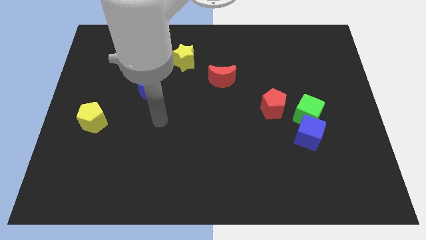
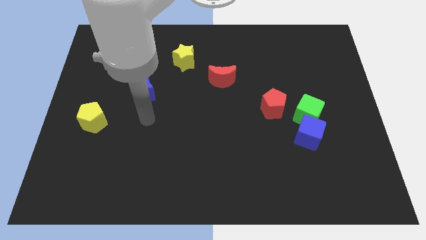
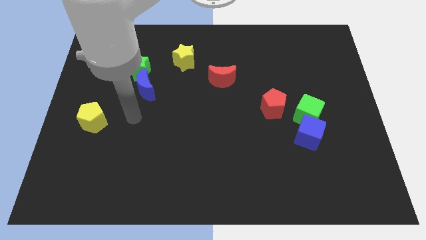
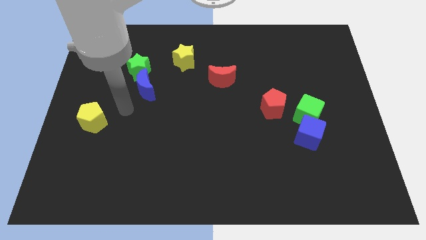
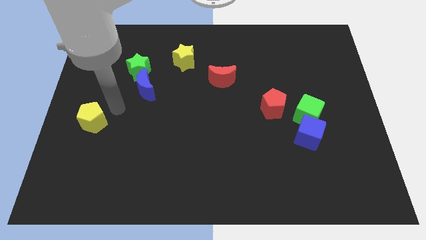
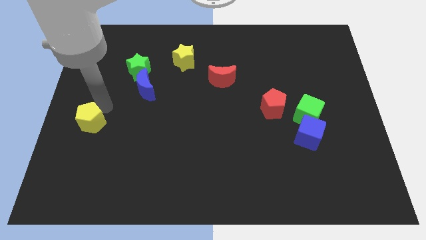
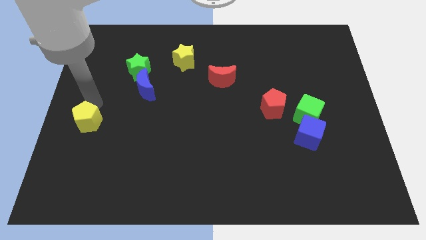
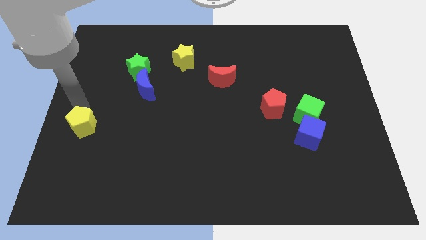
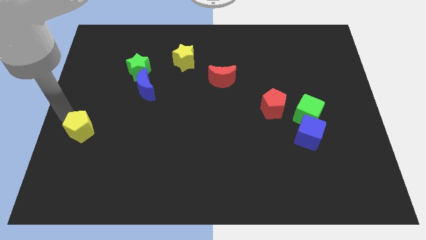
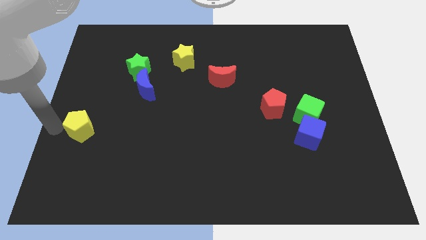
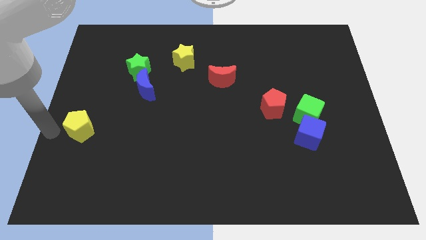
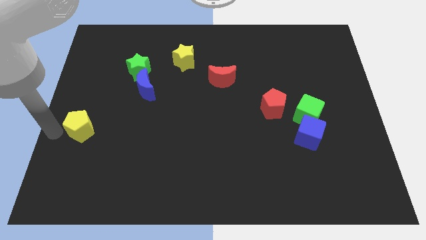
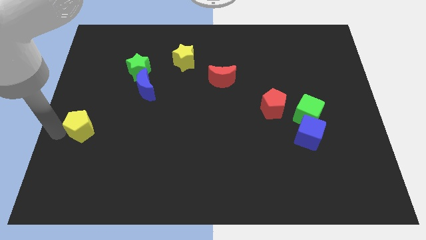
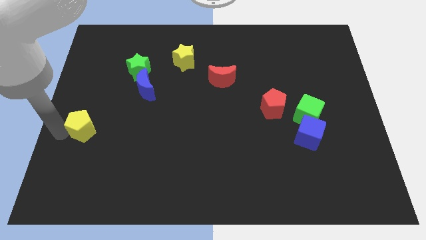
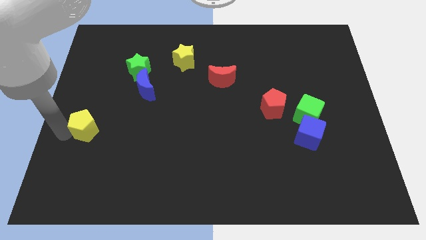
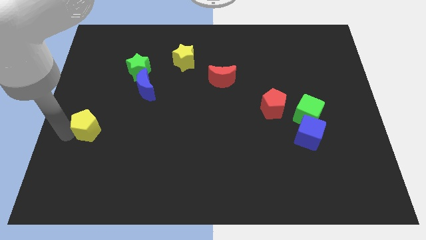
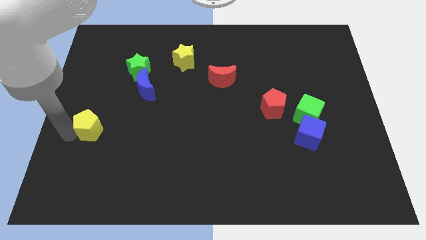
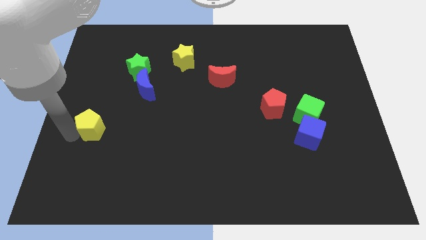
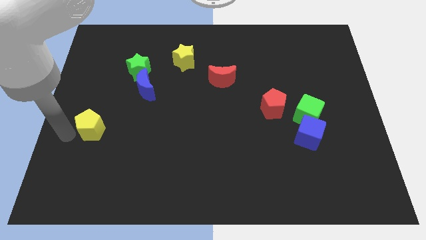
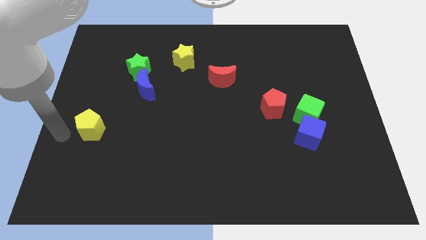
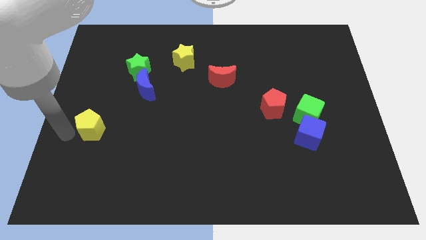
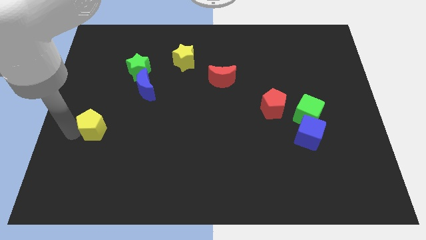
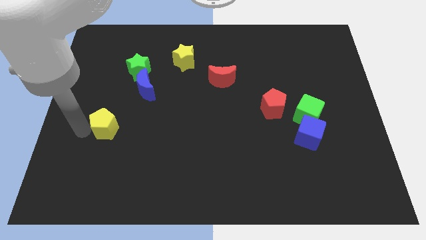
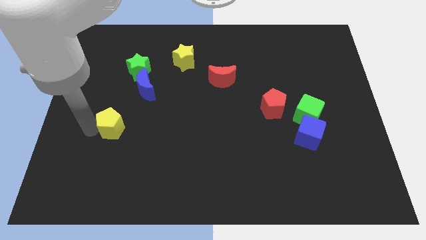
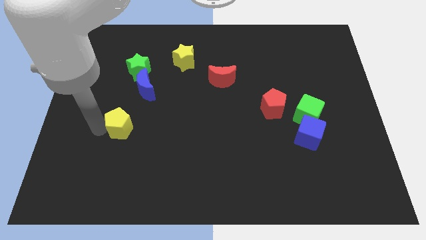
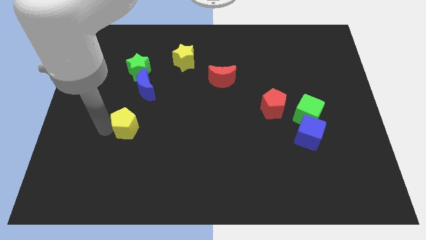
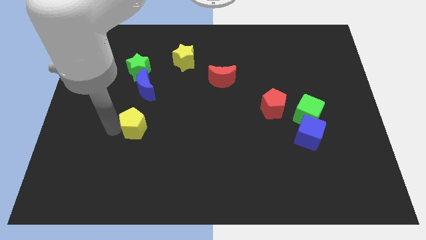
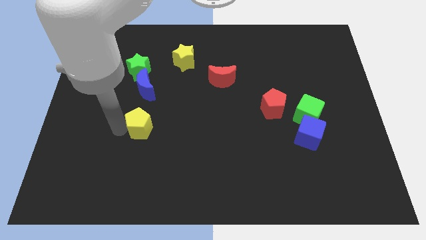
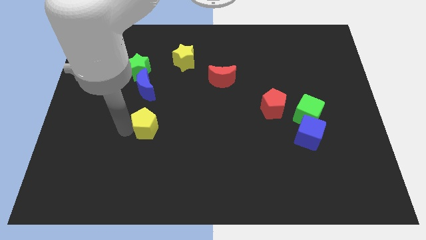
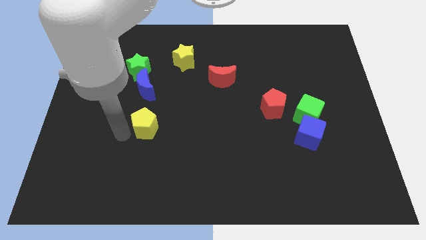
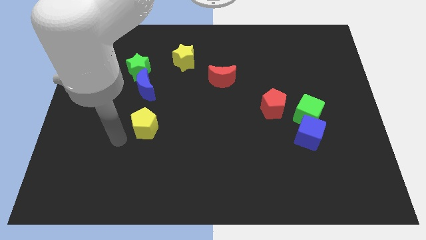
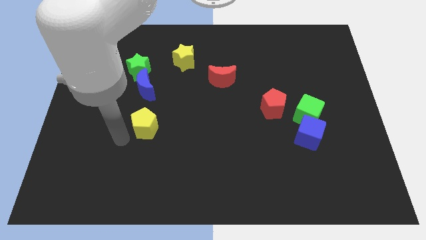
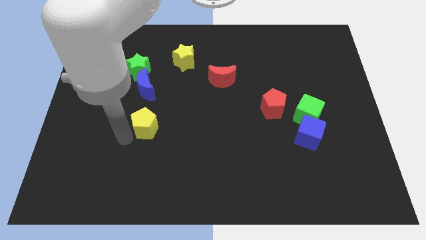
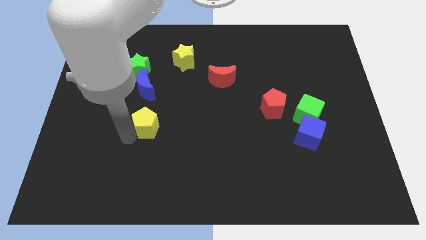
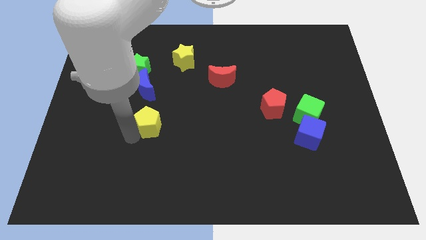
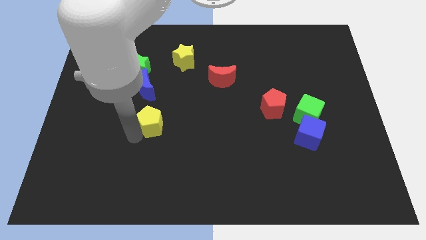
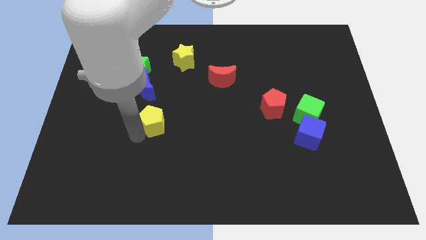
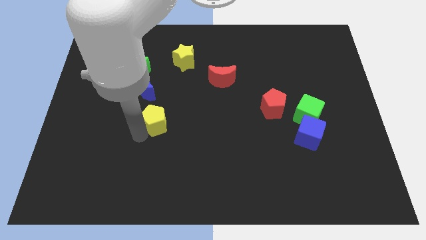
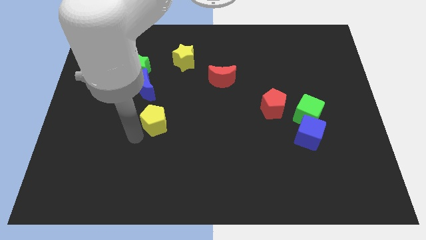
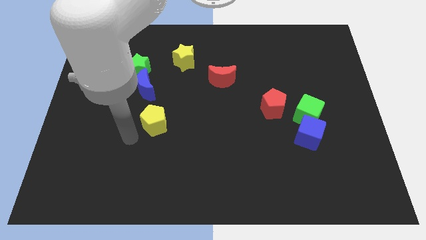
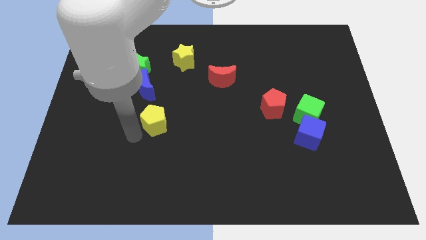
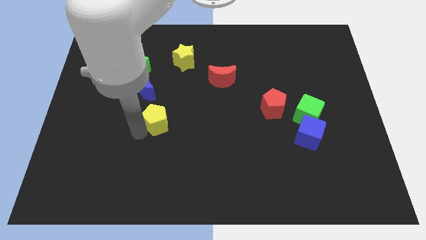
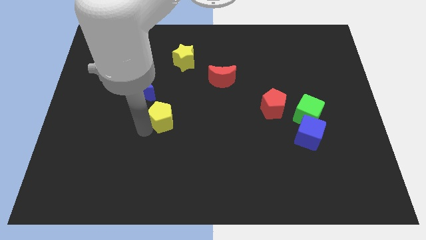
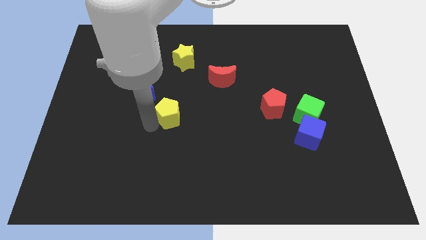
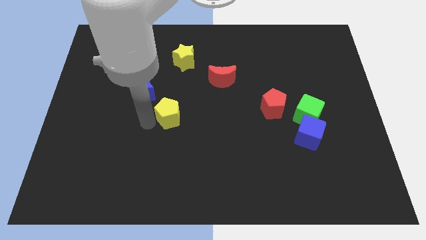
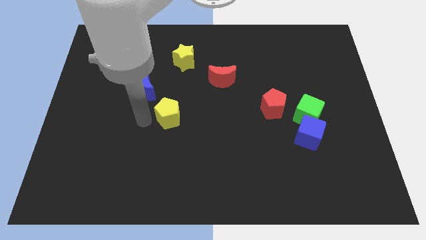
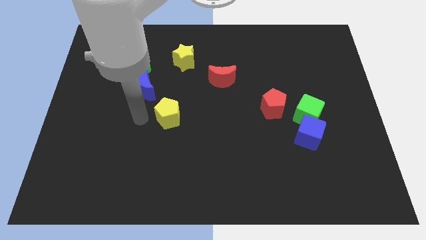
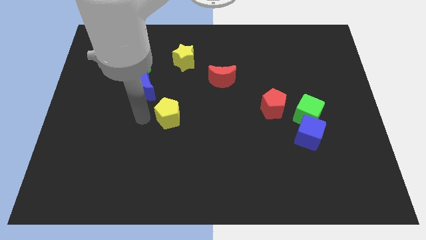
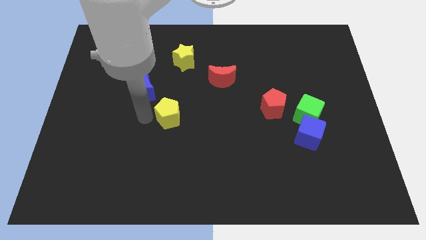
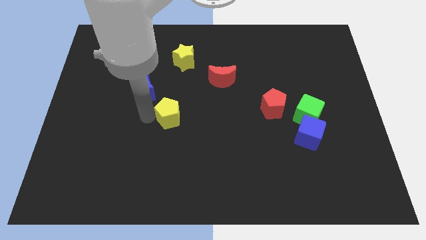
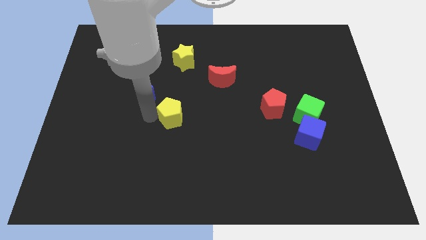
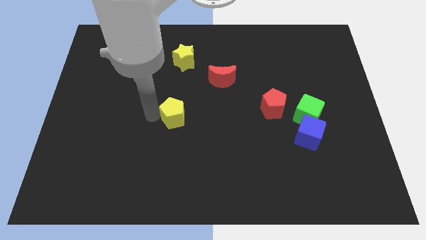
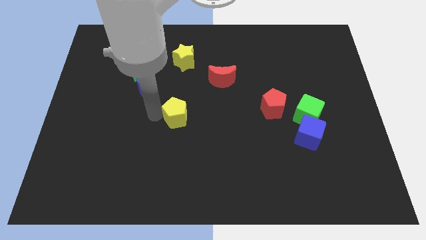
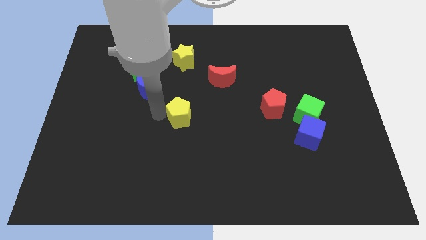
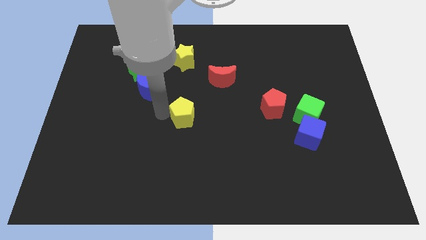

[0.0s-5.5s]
slide the yellow pentagon right

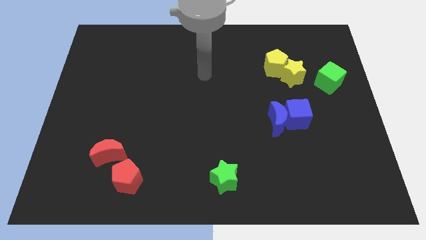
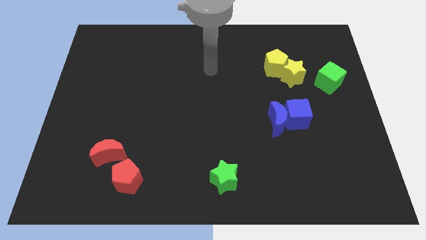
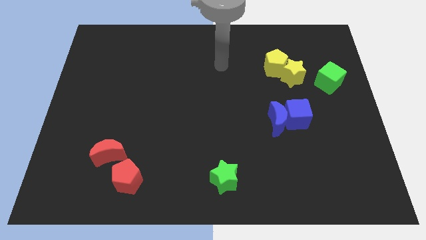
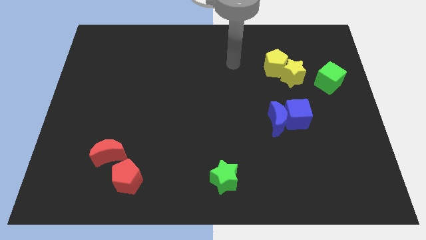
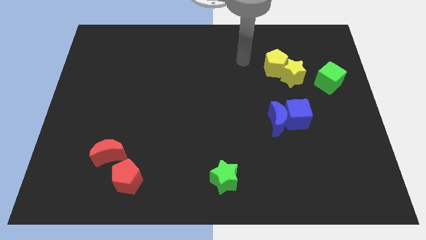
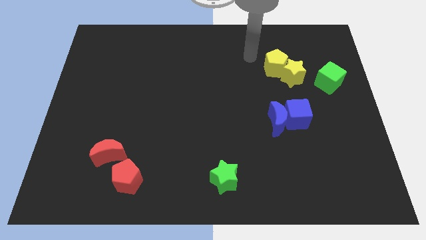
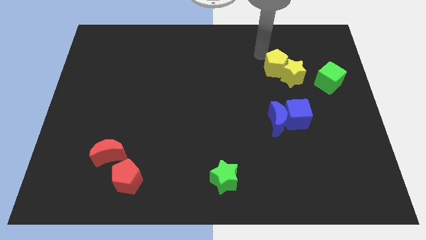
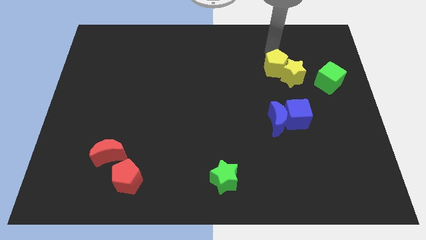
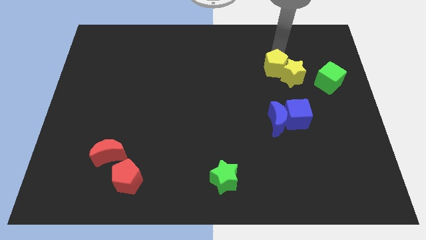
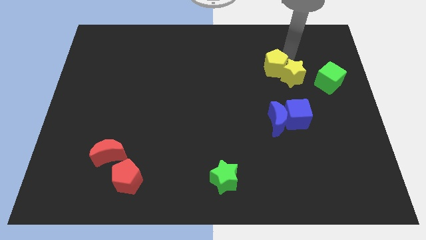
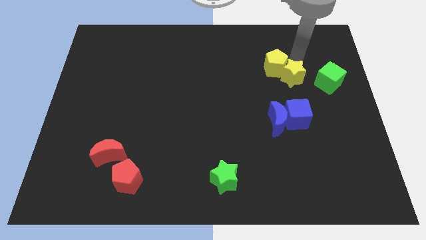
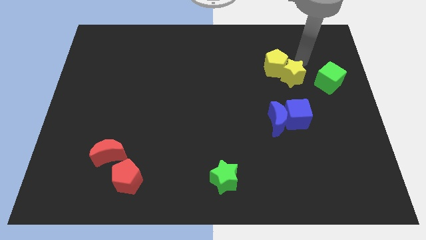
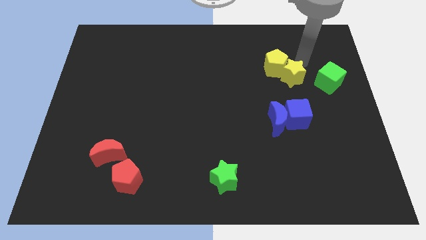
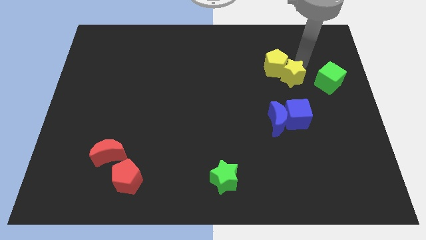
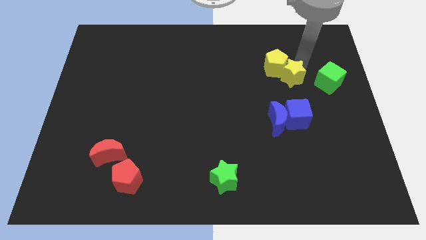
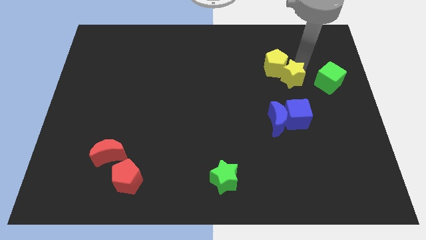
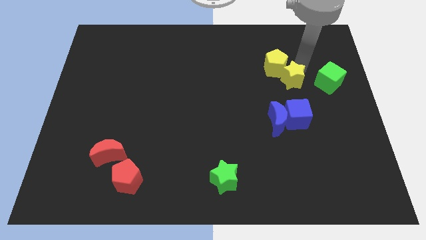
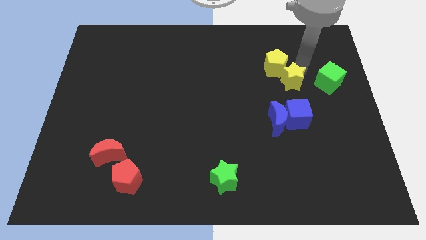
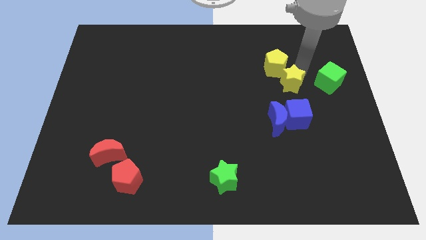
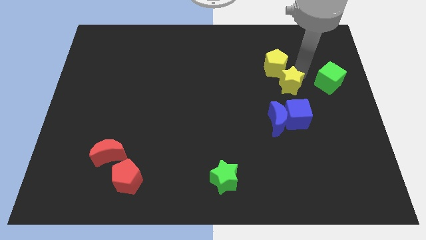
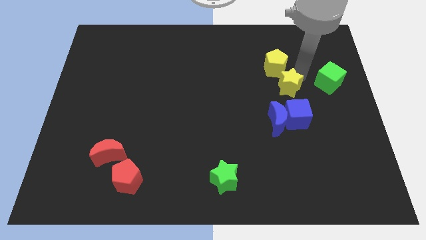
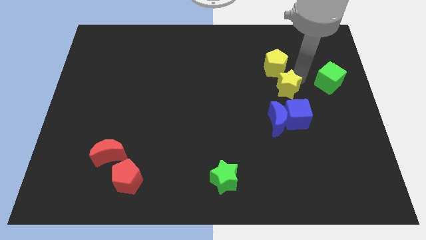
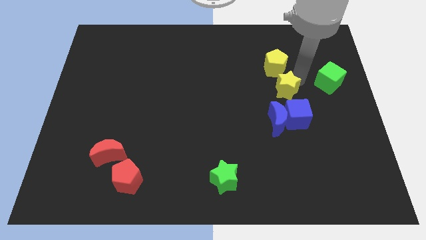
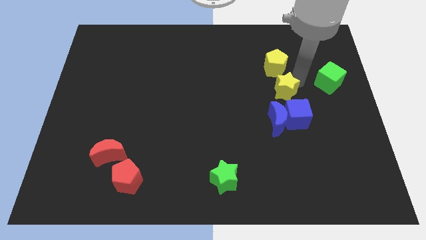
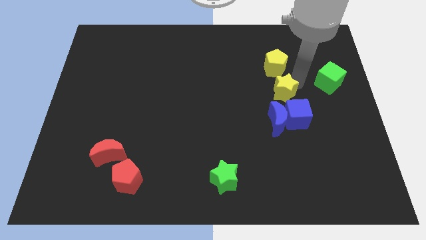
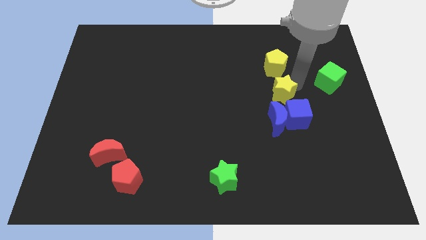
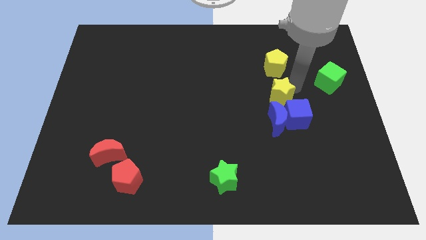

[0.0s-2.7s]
move the yellow star somewhat downwards and then to the left
